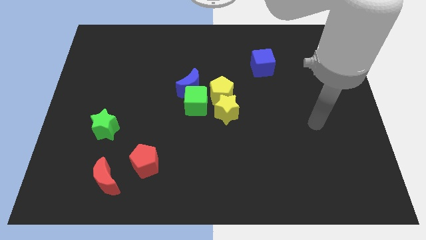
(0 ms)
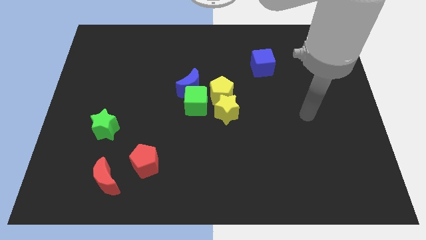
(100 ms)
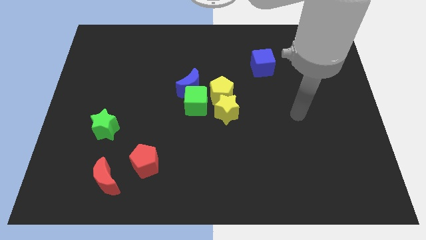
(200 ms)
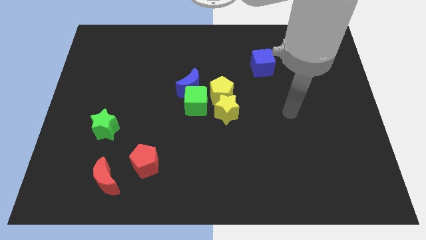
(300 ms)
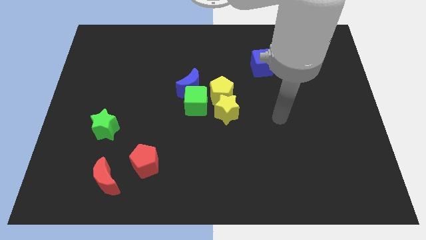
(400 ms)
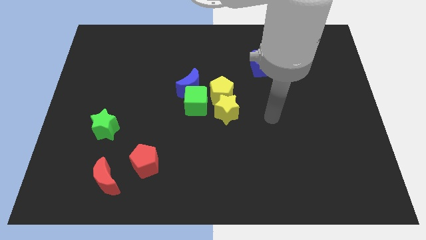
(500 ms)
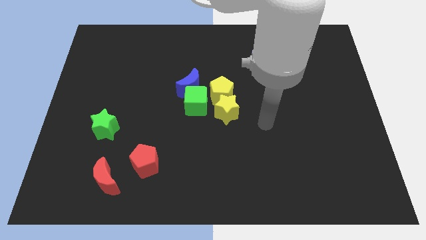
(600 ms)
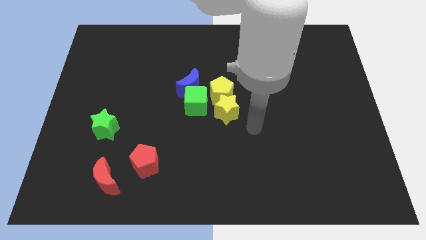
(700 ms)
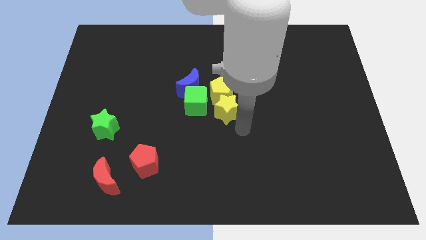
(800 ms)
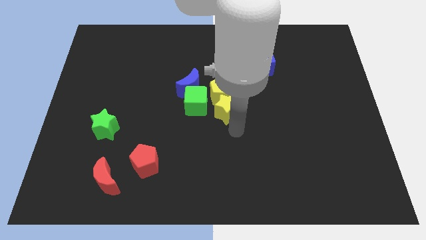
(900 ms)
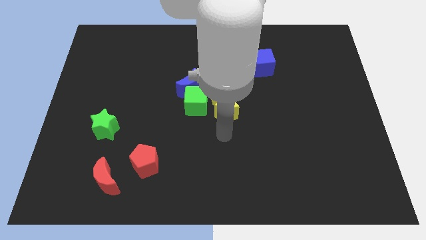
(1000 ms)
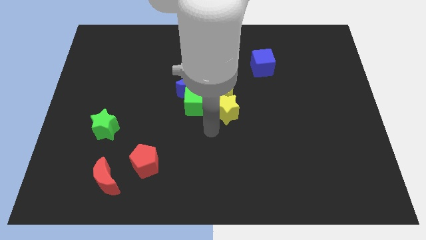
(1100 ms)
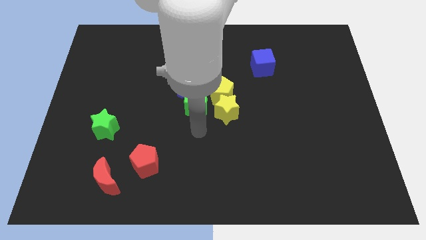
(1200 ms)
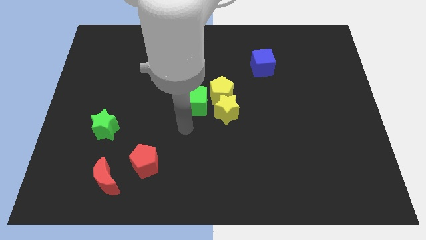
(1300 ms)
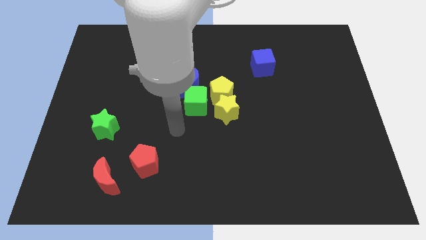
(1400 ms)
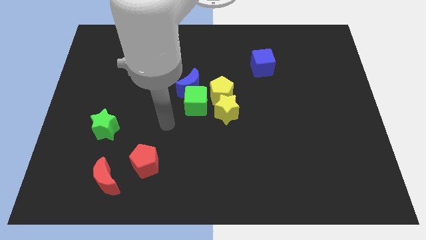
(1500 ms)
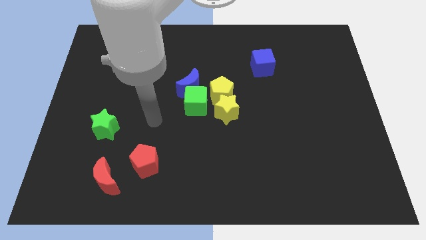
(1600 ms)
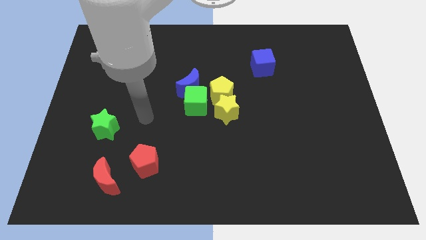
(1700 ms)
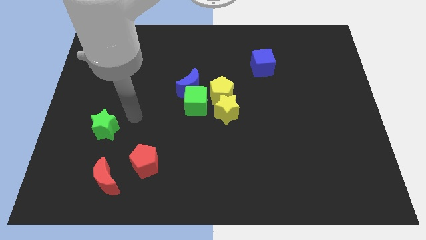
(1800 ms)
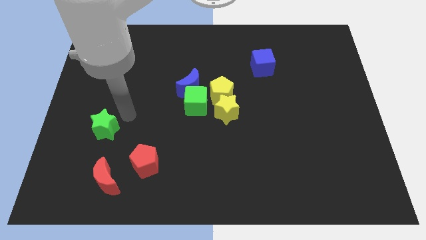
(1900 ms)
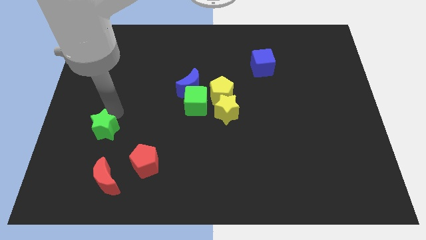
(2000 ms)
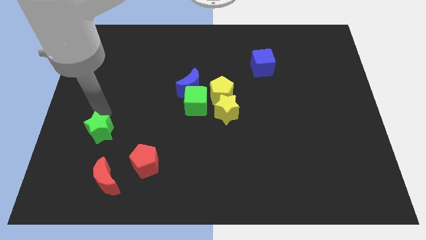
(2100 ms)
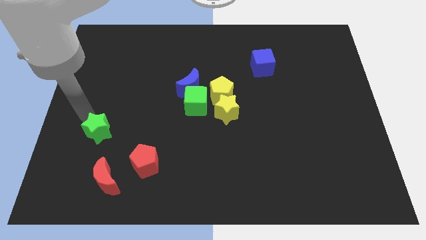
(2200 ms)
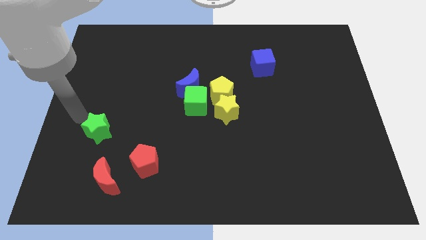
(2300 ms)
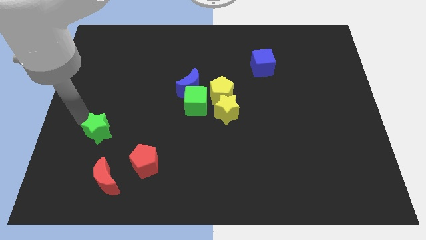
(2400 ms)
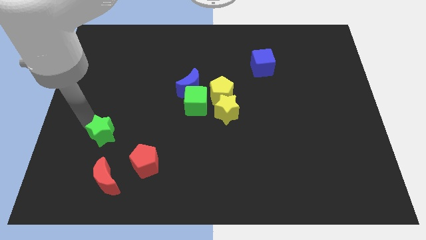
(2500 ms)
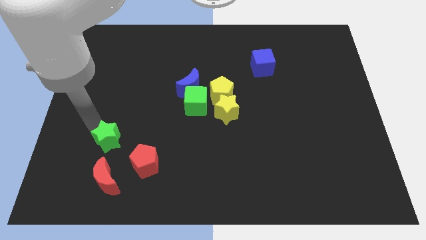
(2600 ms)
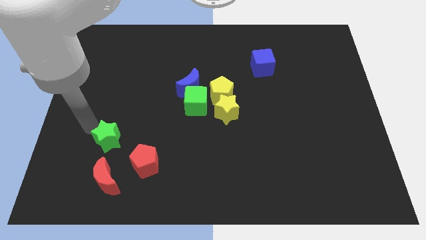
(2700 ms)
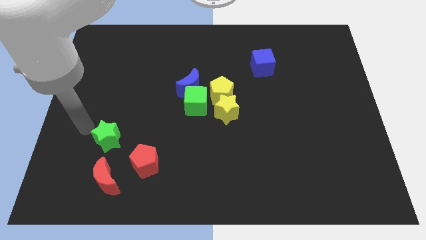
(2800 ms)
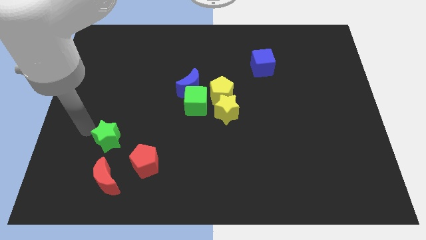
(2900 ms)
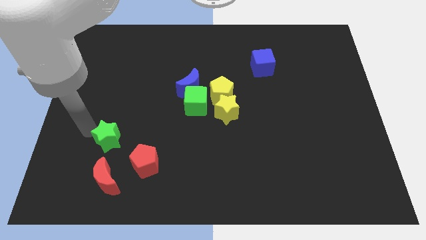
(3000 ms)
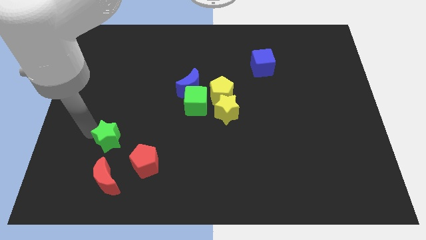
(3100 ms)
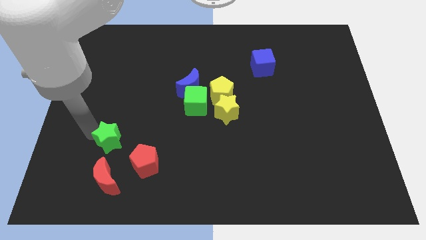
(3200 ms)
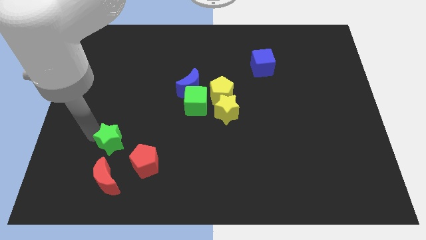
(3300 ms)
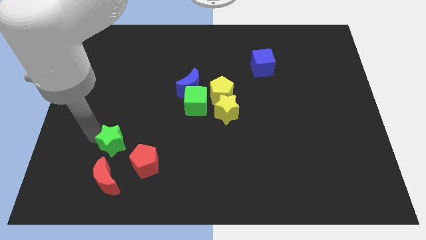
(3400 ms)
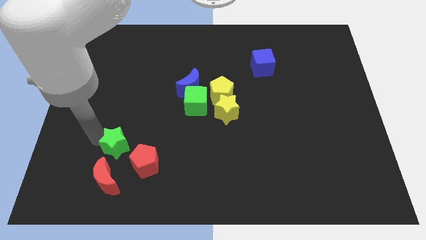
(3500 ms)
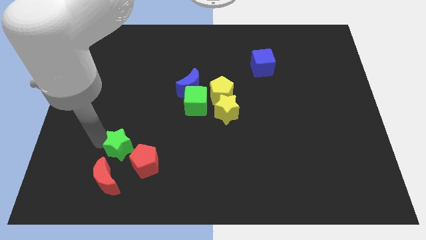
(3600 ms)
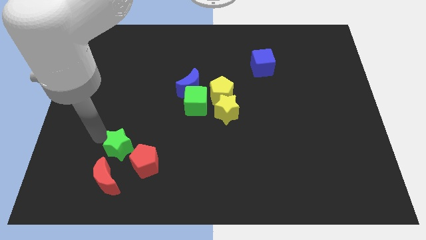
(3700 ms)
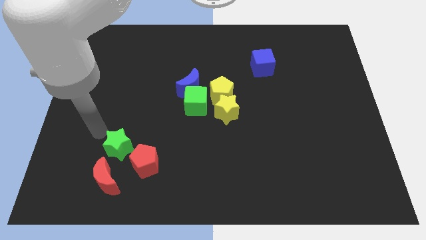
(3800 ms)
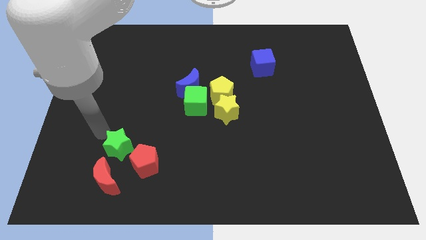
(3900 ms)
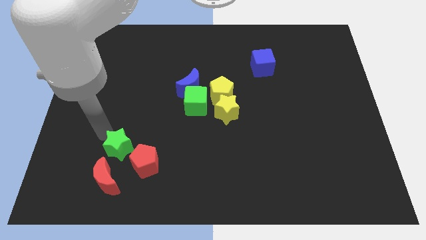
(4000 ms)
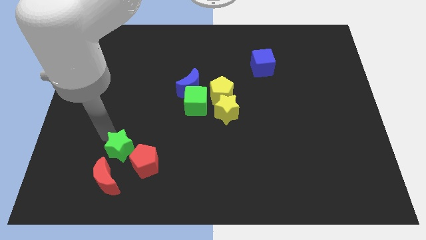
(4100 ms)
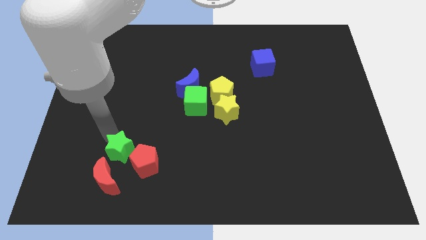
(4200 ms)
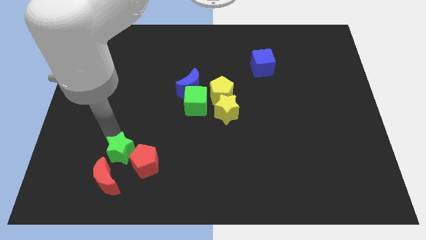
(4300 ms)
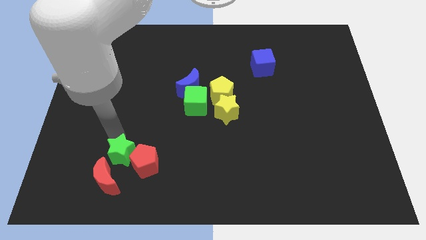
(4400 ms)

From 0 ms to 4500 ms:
slide the green star close to the red pentagon

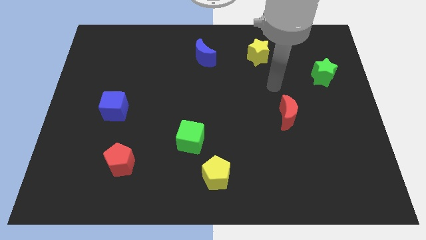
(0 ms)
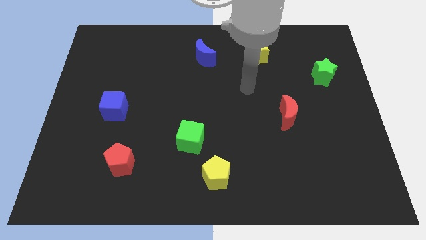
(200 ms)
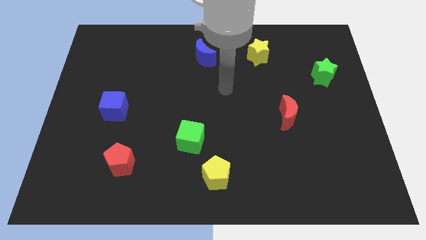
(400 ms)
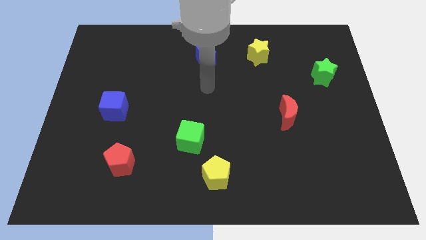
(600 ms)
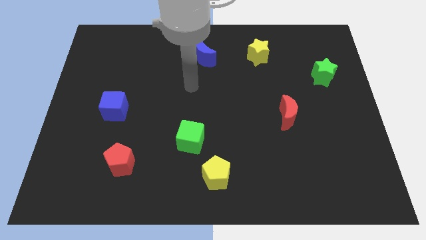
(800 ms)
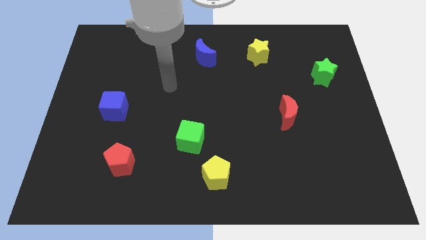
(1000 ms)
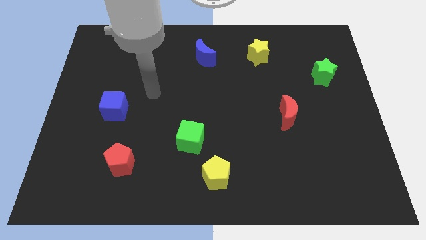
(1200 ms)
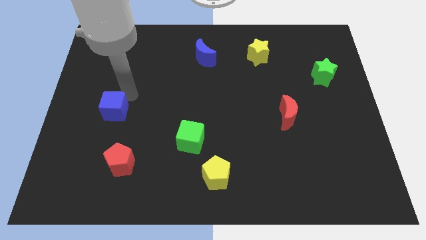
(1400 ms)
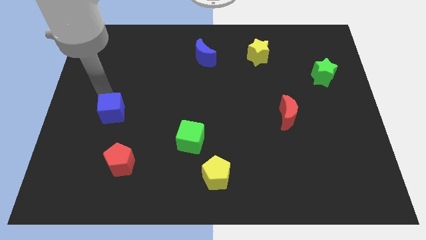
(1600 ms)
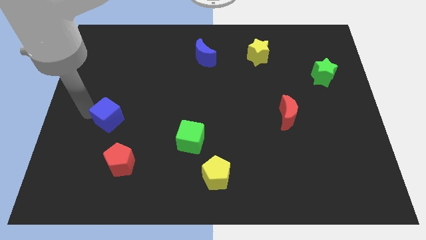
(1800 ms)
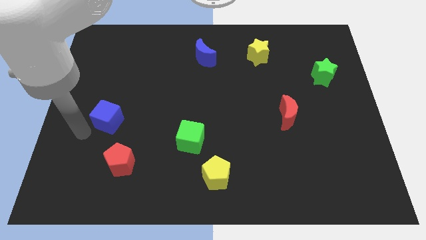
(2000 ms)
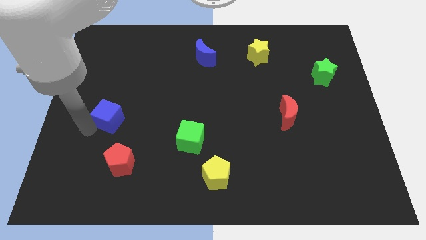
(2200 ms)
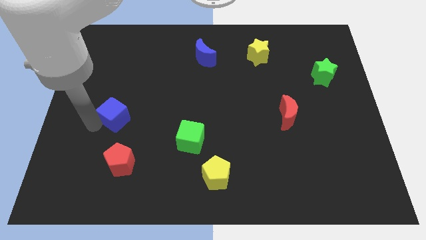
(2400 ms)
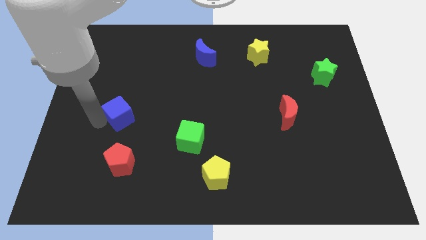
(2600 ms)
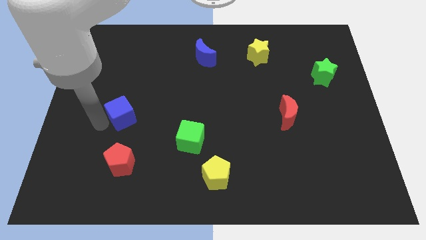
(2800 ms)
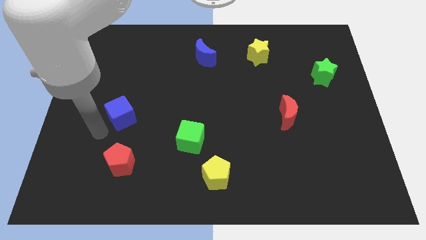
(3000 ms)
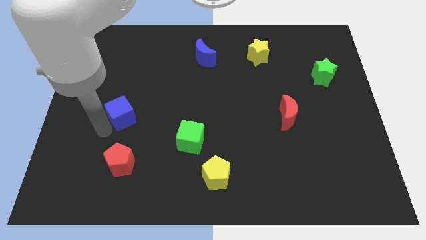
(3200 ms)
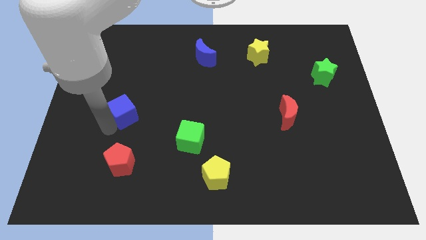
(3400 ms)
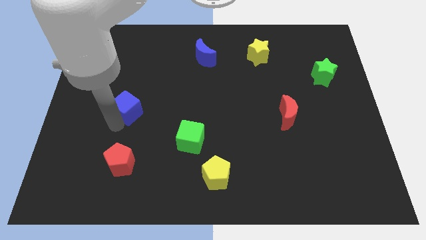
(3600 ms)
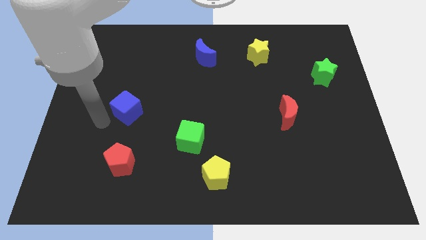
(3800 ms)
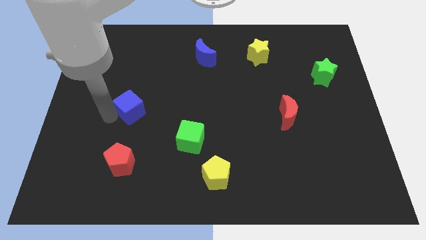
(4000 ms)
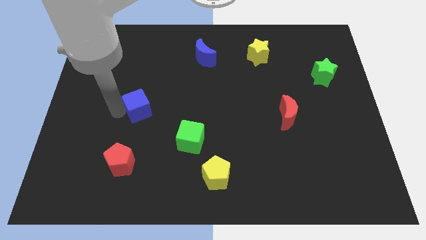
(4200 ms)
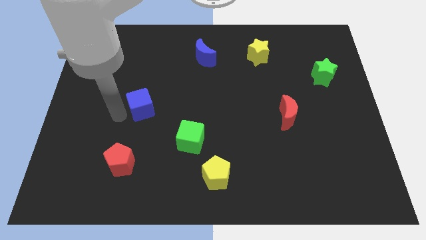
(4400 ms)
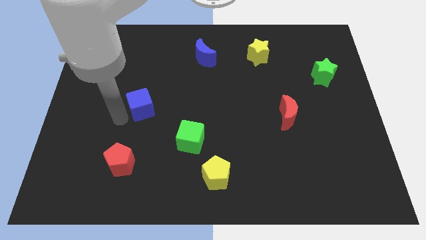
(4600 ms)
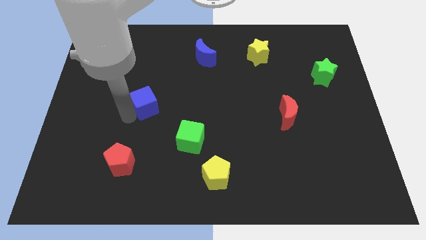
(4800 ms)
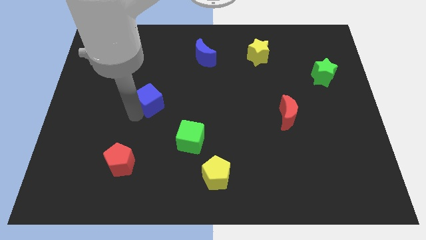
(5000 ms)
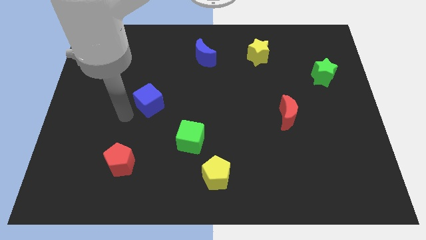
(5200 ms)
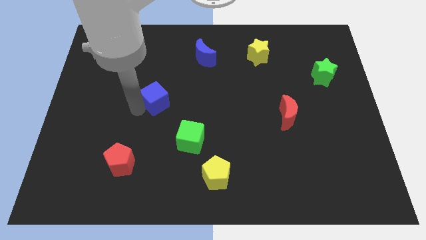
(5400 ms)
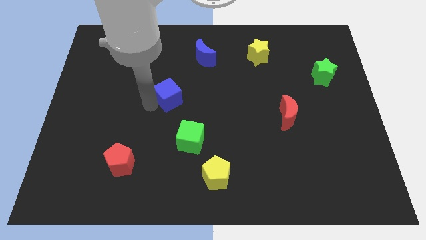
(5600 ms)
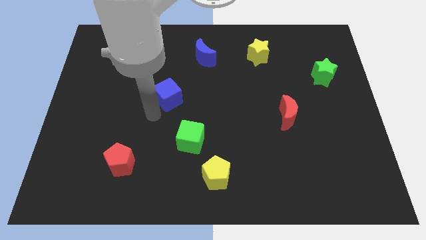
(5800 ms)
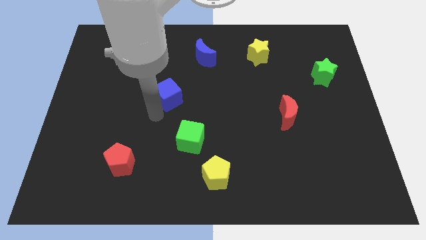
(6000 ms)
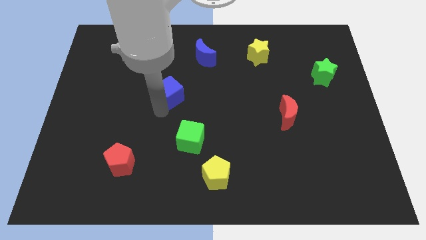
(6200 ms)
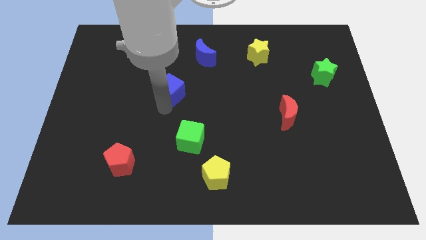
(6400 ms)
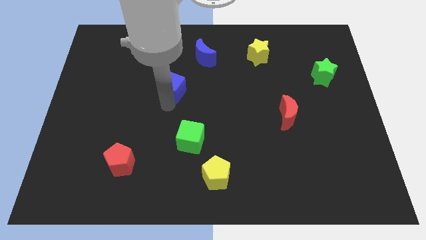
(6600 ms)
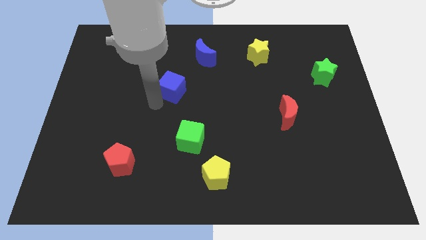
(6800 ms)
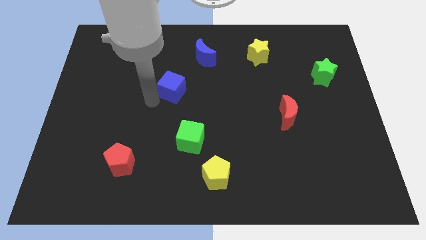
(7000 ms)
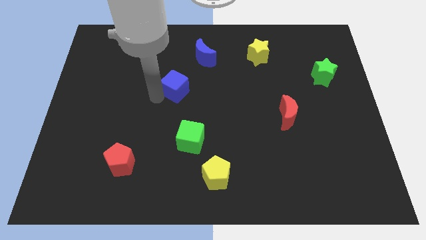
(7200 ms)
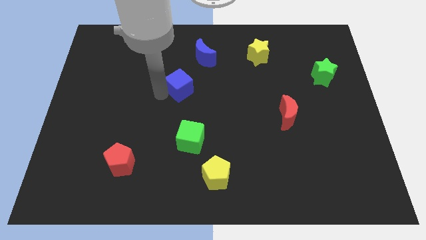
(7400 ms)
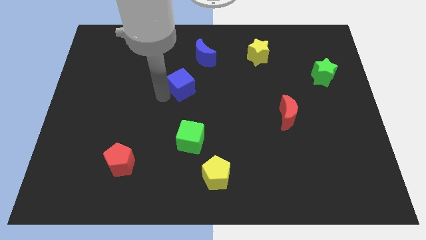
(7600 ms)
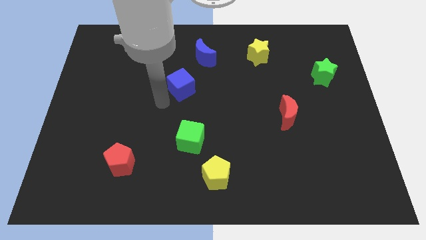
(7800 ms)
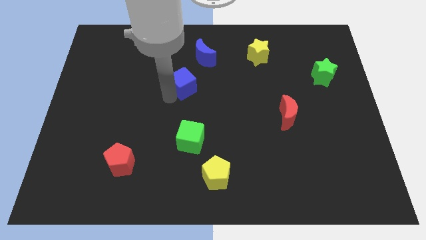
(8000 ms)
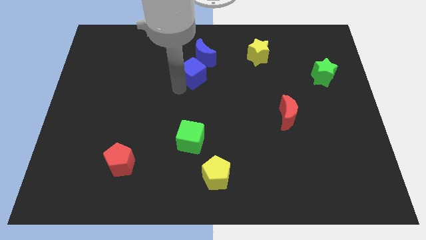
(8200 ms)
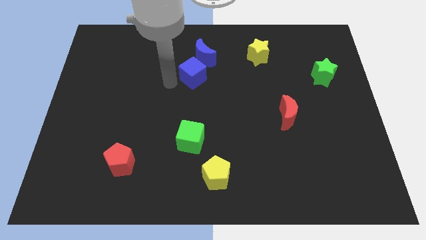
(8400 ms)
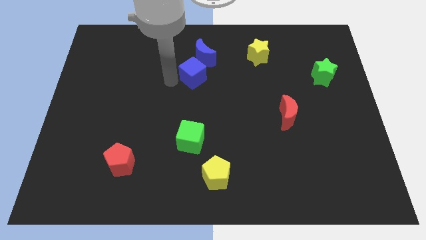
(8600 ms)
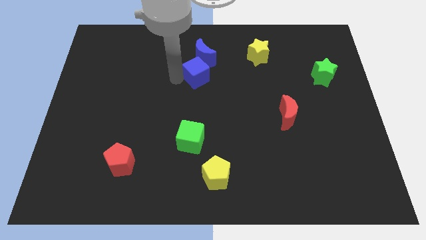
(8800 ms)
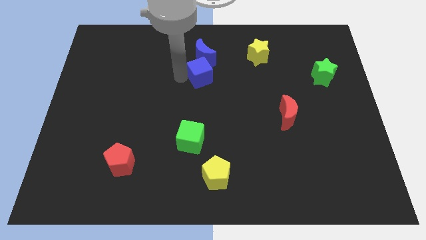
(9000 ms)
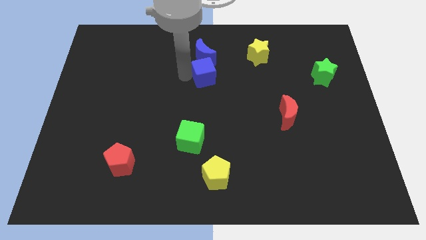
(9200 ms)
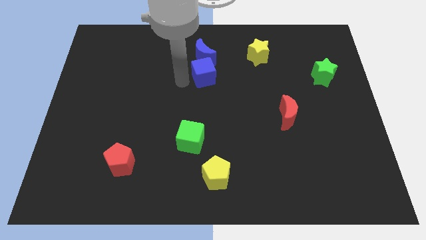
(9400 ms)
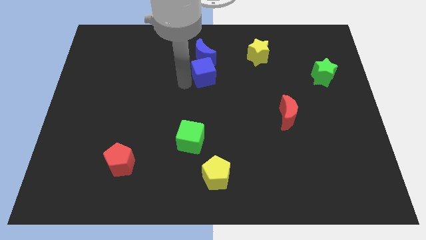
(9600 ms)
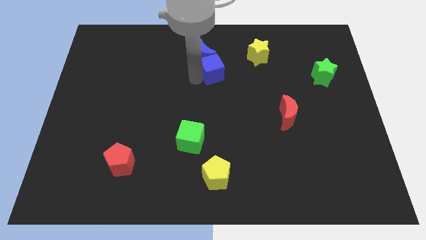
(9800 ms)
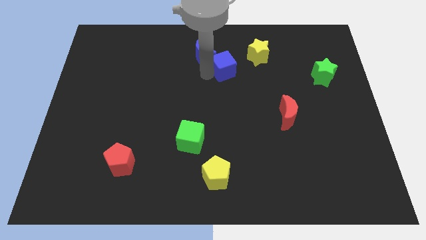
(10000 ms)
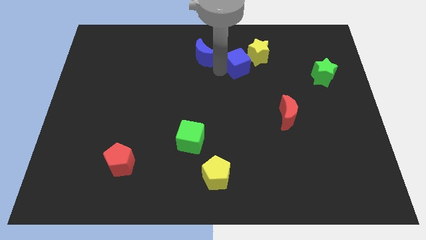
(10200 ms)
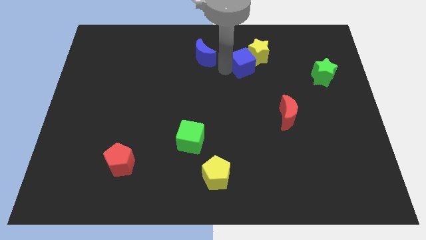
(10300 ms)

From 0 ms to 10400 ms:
push the blue cube next to the yellow star
